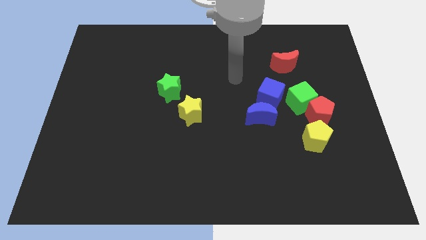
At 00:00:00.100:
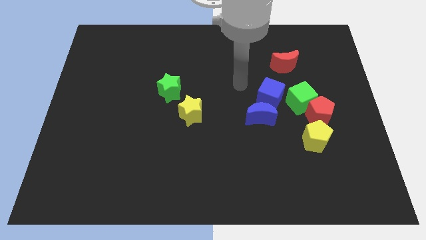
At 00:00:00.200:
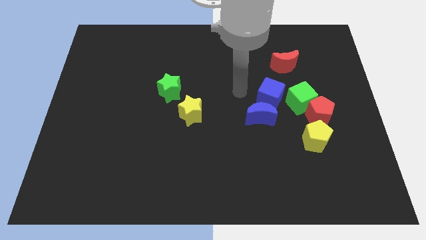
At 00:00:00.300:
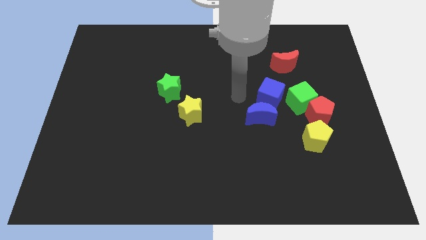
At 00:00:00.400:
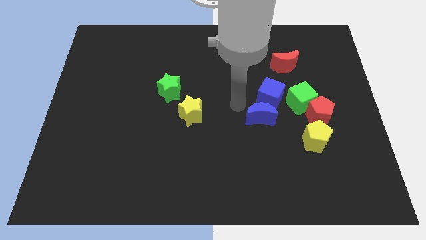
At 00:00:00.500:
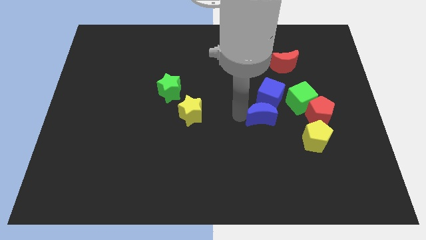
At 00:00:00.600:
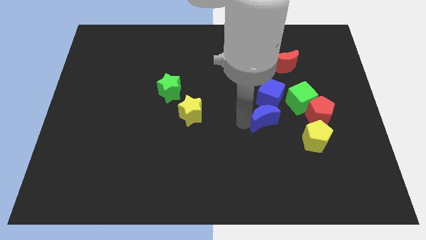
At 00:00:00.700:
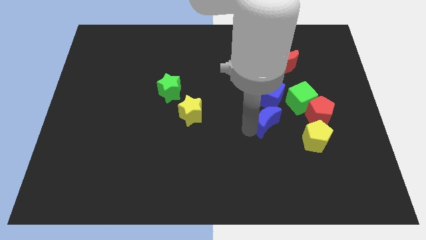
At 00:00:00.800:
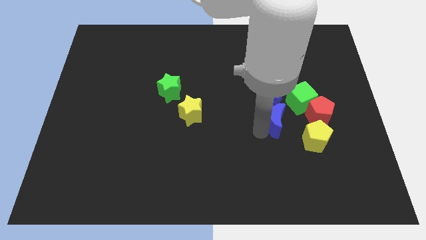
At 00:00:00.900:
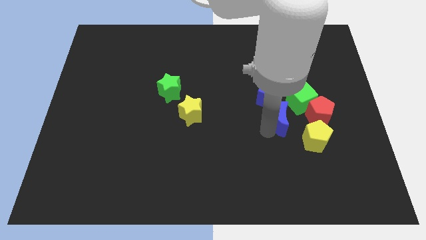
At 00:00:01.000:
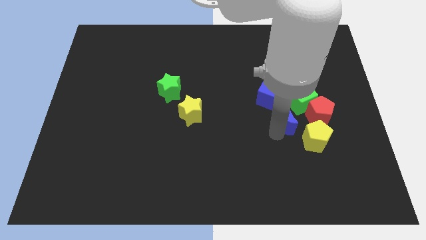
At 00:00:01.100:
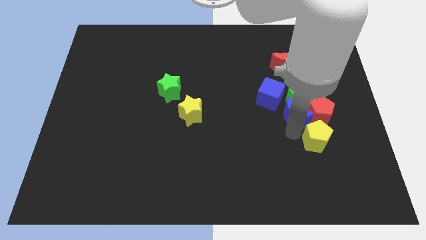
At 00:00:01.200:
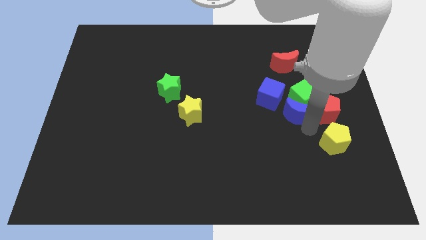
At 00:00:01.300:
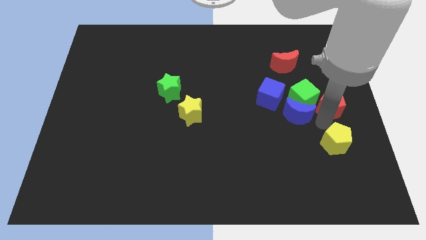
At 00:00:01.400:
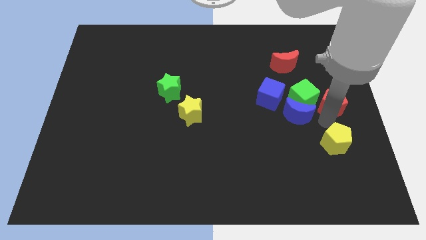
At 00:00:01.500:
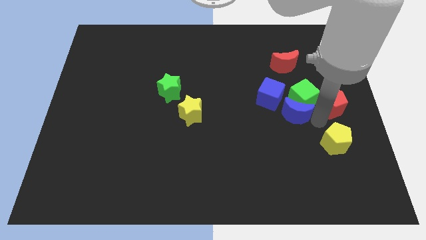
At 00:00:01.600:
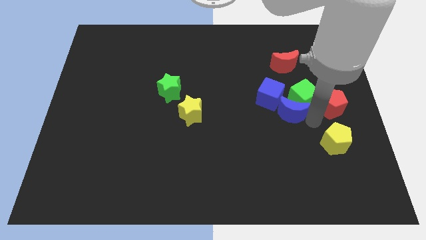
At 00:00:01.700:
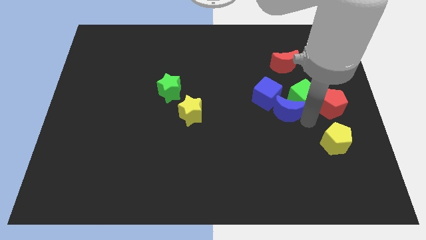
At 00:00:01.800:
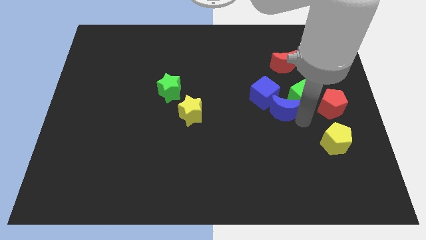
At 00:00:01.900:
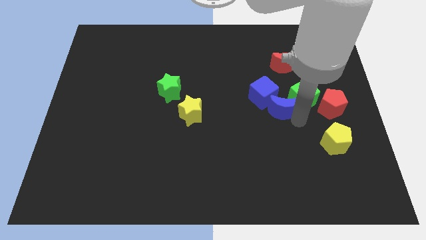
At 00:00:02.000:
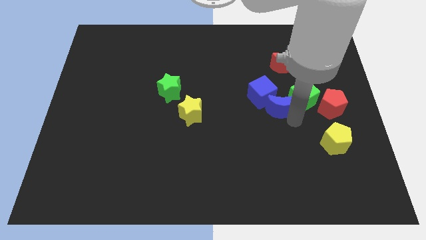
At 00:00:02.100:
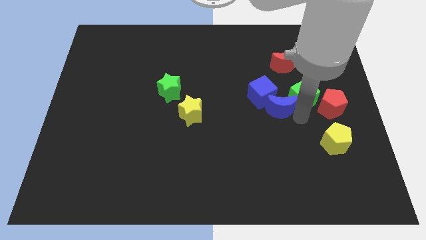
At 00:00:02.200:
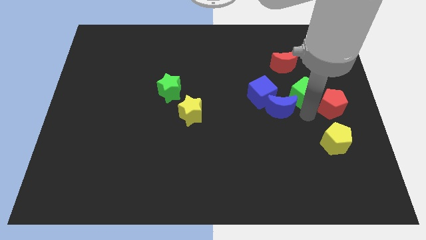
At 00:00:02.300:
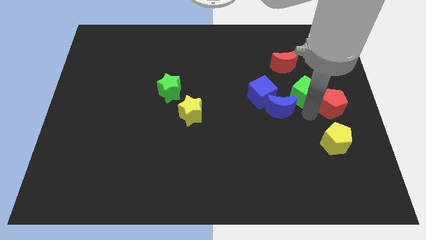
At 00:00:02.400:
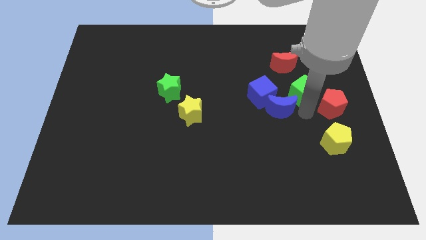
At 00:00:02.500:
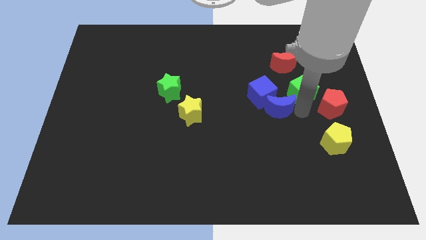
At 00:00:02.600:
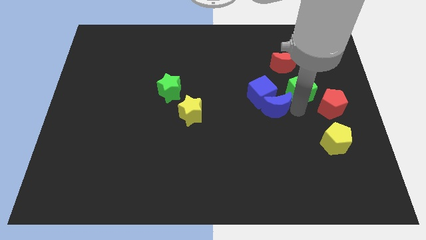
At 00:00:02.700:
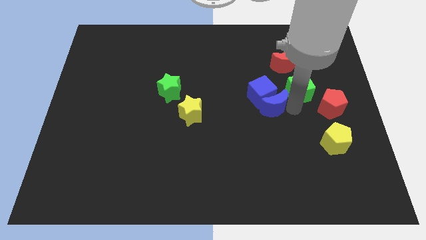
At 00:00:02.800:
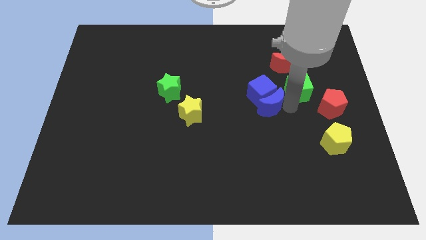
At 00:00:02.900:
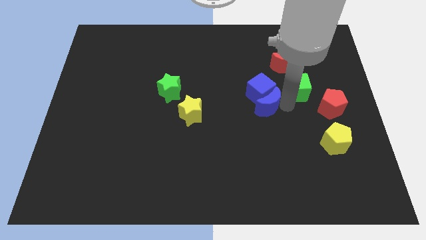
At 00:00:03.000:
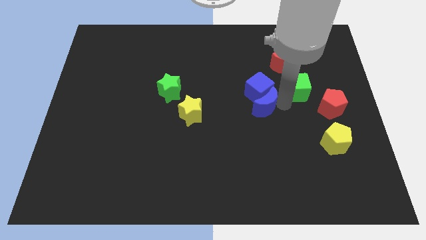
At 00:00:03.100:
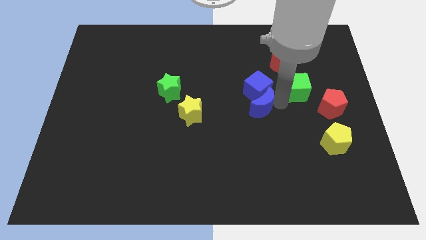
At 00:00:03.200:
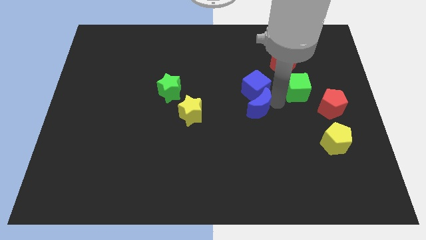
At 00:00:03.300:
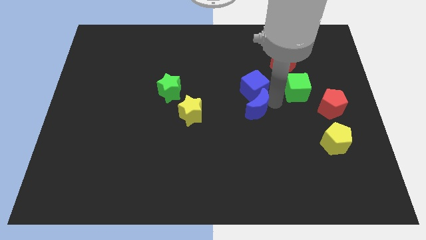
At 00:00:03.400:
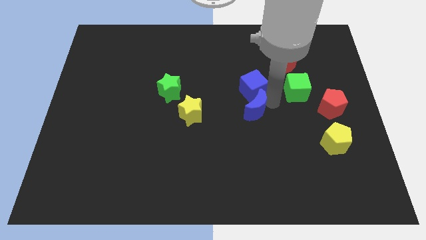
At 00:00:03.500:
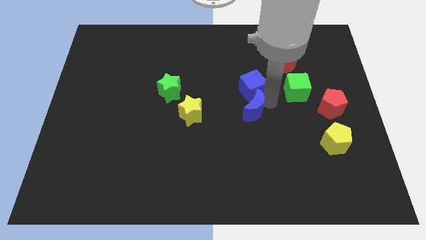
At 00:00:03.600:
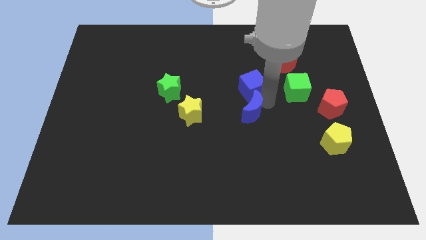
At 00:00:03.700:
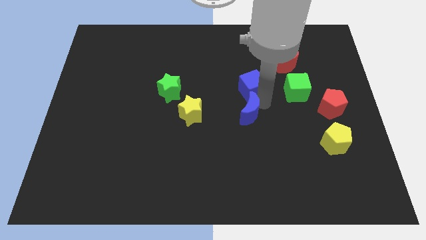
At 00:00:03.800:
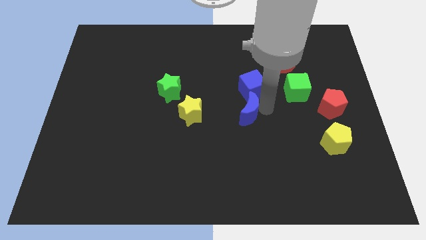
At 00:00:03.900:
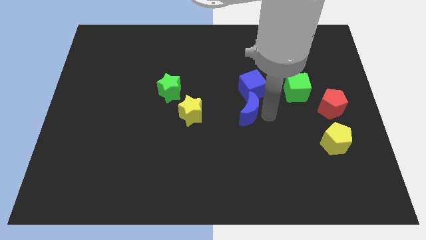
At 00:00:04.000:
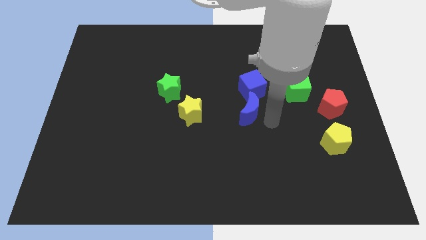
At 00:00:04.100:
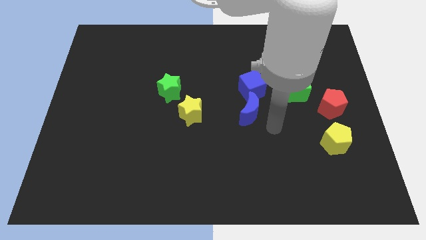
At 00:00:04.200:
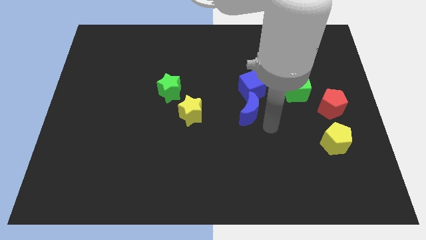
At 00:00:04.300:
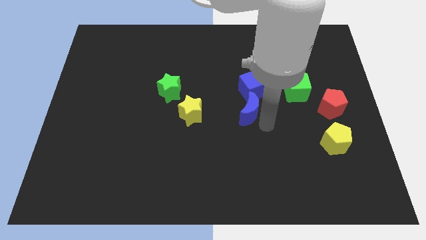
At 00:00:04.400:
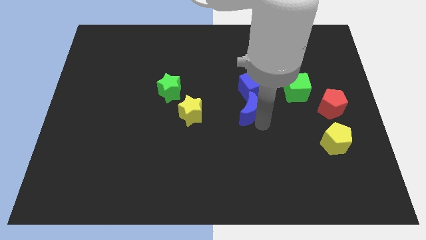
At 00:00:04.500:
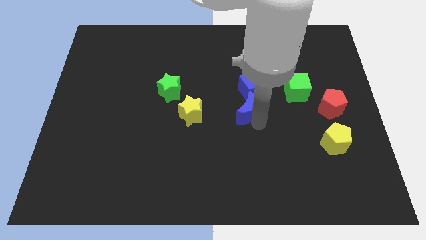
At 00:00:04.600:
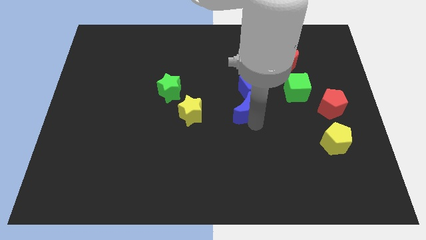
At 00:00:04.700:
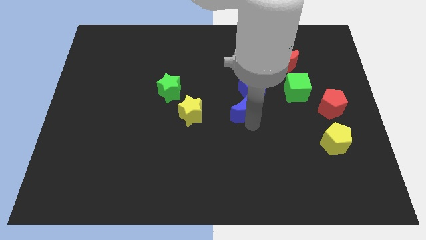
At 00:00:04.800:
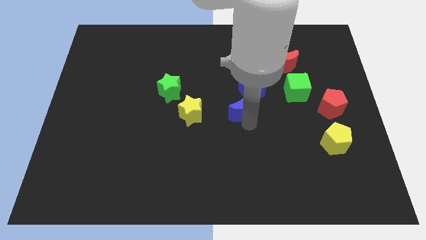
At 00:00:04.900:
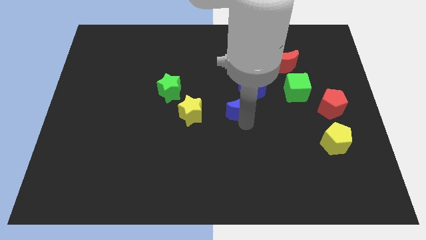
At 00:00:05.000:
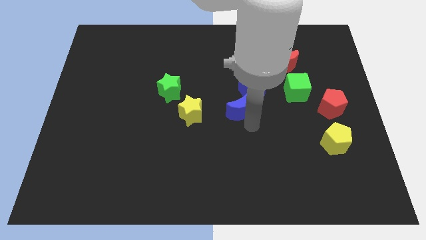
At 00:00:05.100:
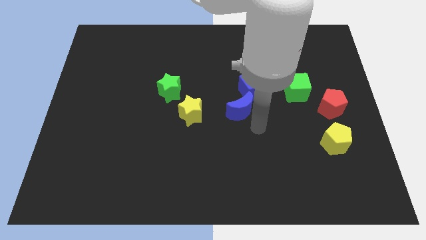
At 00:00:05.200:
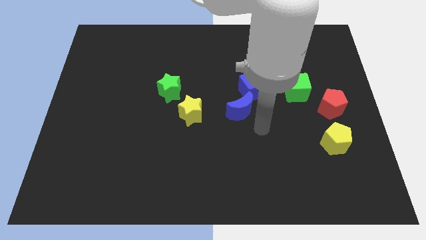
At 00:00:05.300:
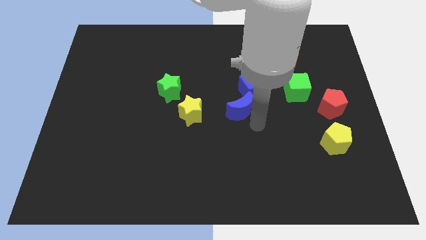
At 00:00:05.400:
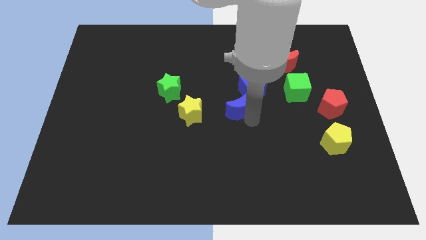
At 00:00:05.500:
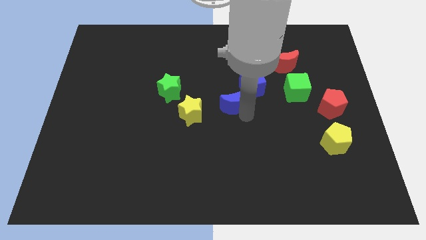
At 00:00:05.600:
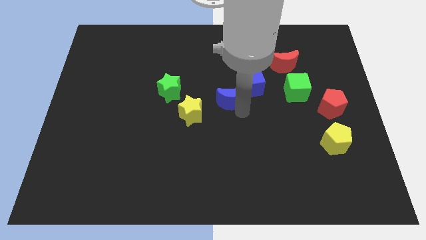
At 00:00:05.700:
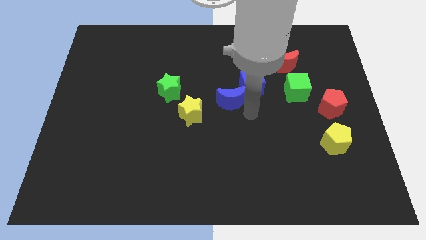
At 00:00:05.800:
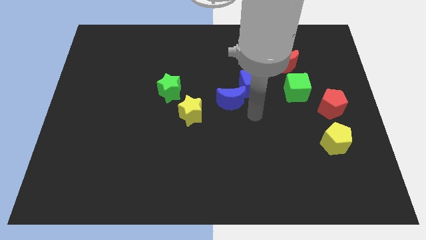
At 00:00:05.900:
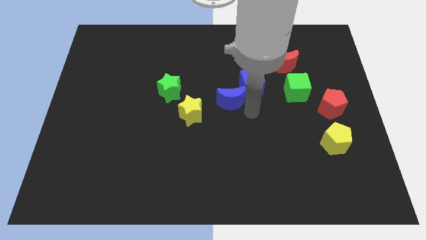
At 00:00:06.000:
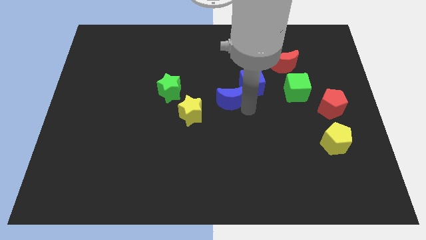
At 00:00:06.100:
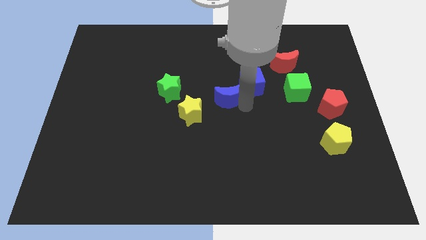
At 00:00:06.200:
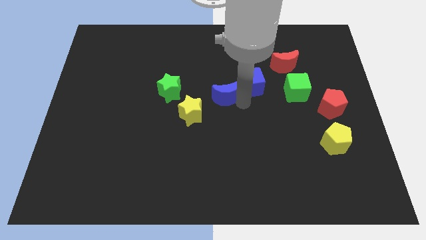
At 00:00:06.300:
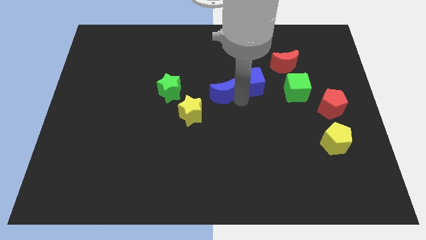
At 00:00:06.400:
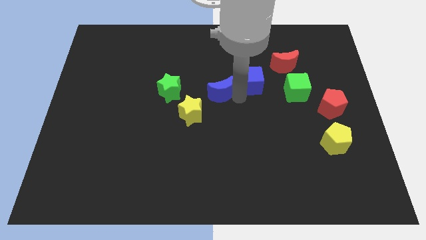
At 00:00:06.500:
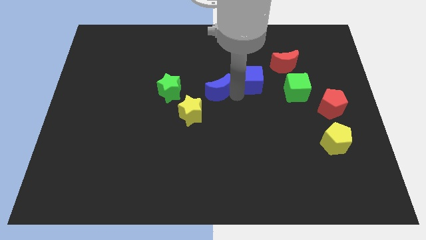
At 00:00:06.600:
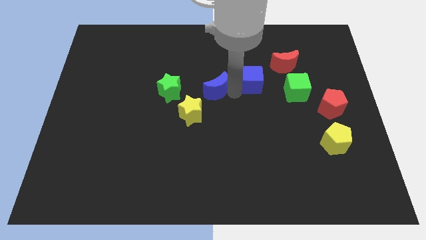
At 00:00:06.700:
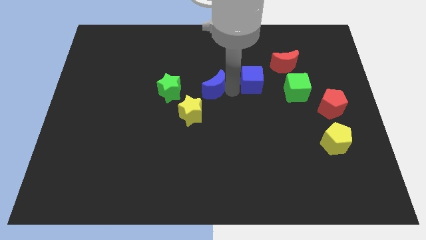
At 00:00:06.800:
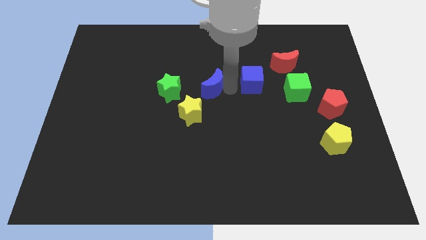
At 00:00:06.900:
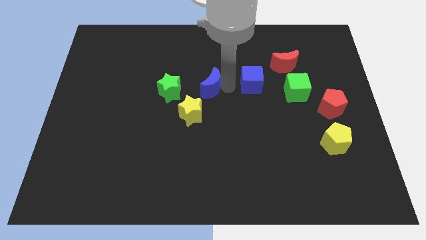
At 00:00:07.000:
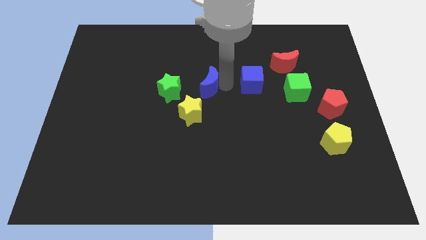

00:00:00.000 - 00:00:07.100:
put the blue moon to the top of the yellow star

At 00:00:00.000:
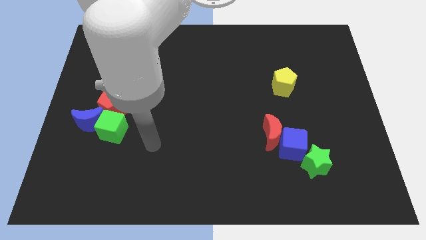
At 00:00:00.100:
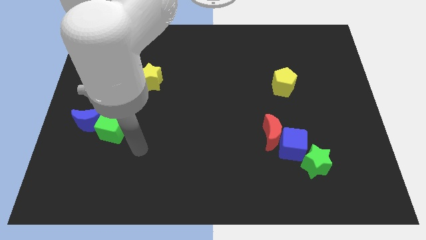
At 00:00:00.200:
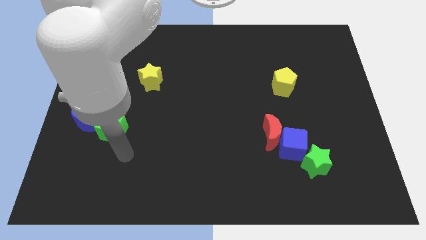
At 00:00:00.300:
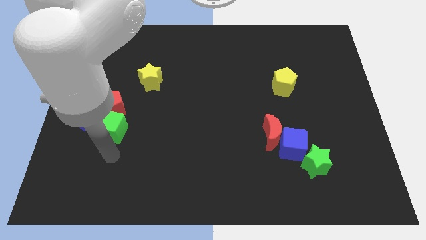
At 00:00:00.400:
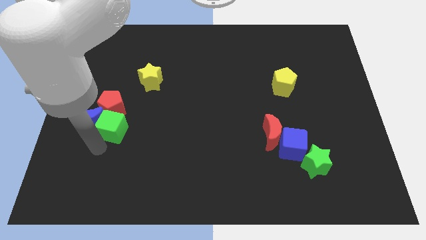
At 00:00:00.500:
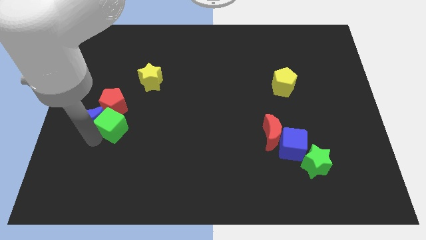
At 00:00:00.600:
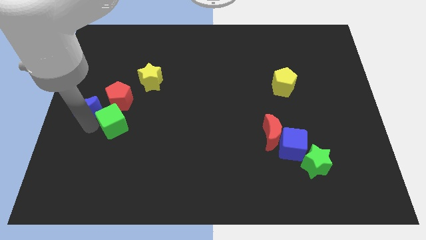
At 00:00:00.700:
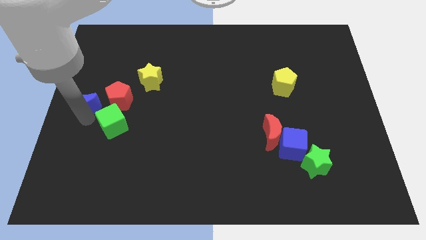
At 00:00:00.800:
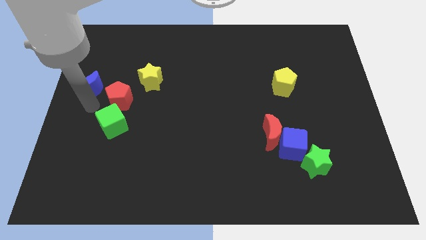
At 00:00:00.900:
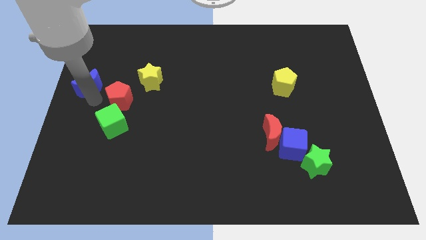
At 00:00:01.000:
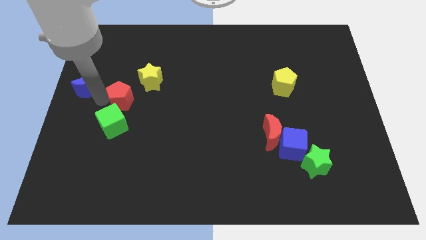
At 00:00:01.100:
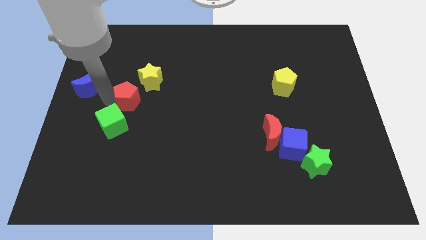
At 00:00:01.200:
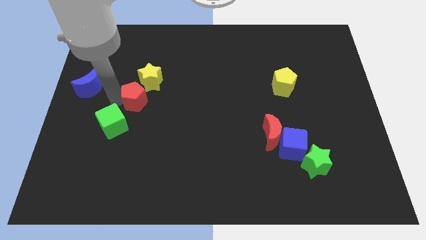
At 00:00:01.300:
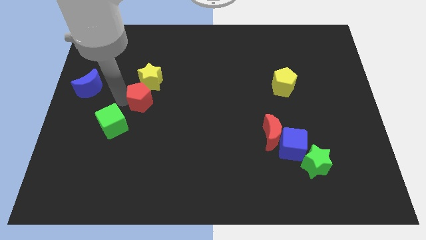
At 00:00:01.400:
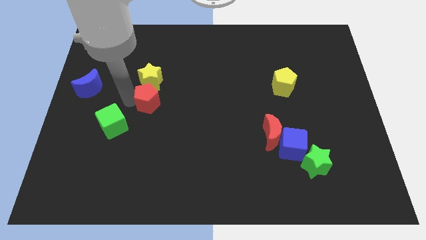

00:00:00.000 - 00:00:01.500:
move the red pentagon to the bottom right side of the yellow star
